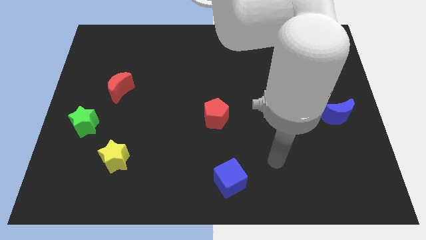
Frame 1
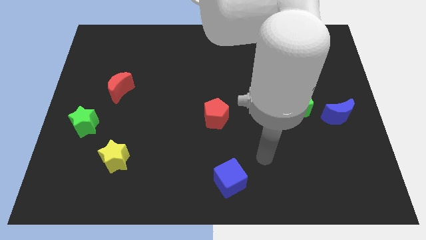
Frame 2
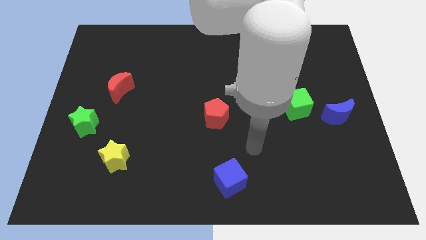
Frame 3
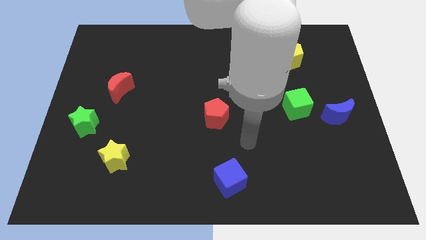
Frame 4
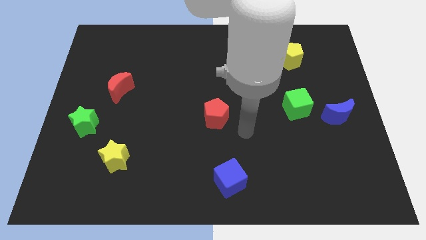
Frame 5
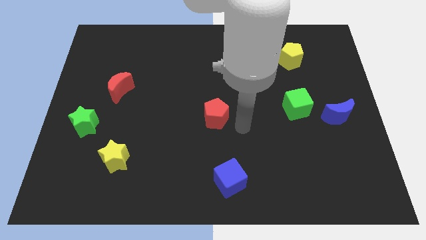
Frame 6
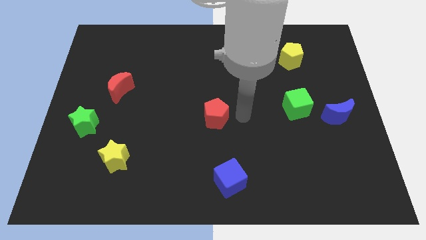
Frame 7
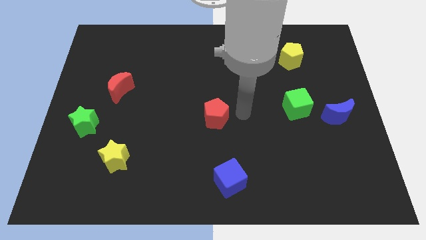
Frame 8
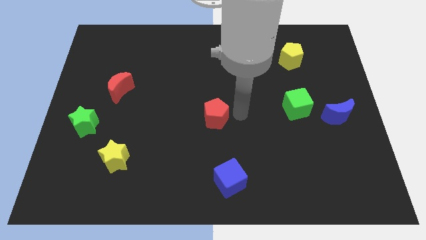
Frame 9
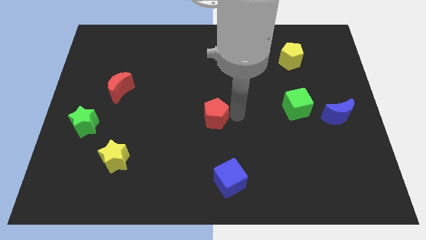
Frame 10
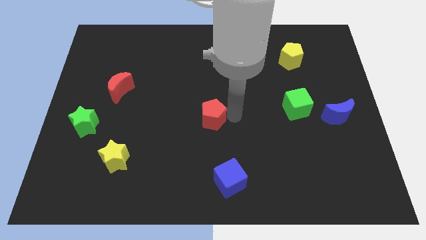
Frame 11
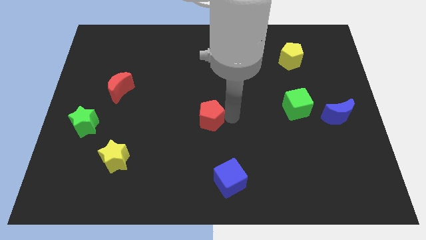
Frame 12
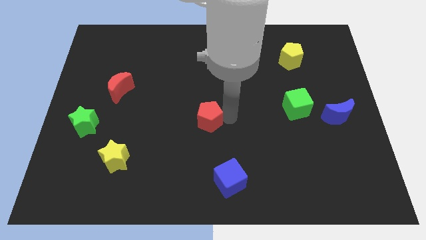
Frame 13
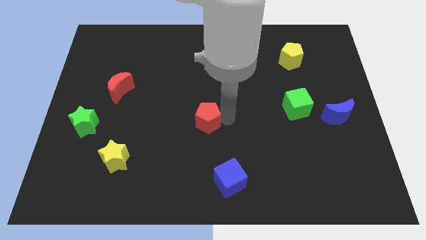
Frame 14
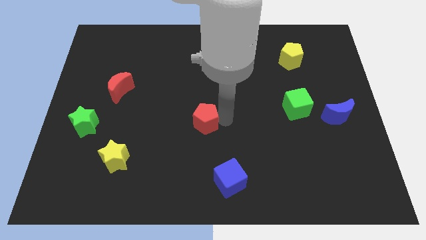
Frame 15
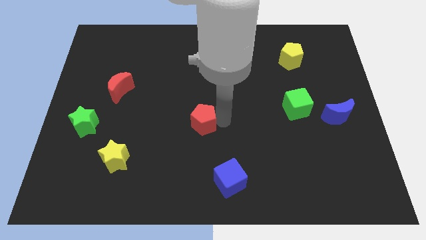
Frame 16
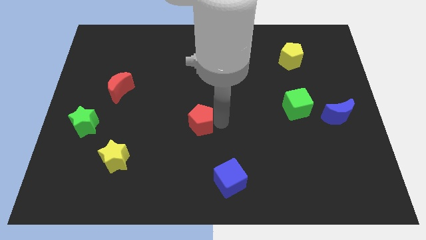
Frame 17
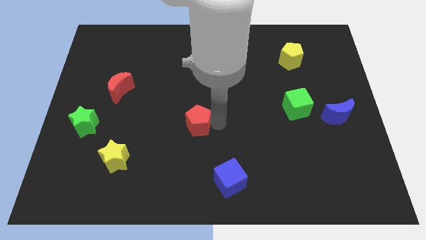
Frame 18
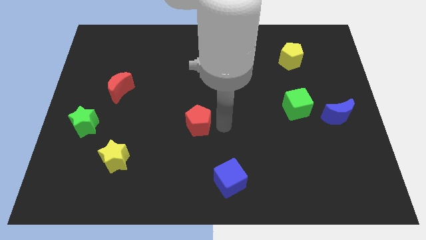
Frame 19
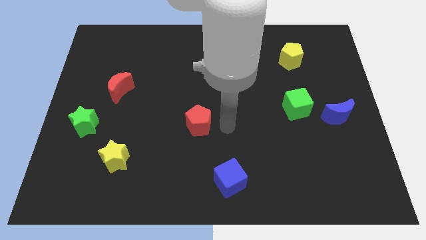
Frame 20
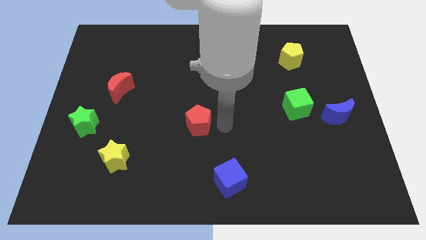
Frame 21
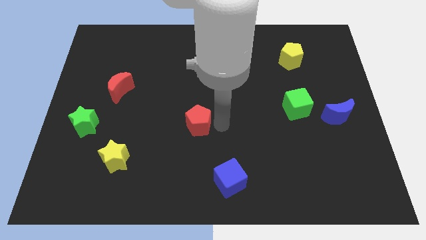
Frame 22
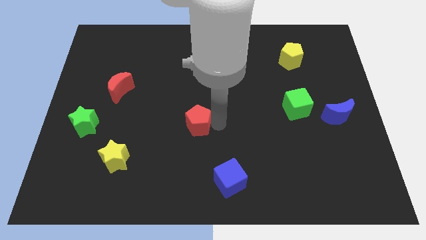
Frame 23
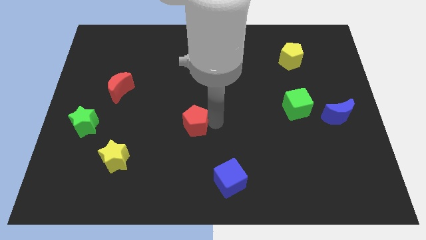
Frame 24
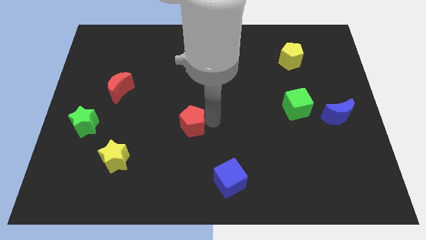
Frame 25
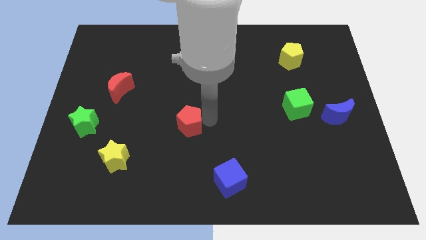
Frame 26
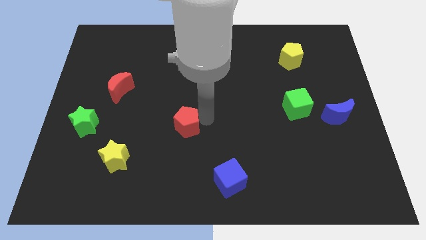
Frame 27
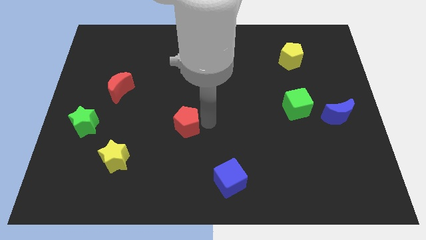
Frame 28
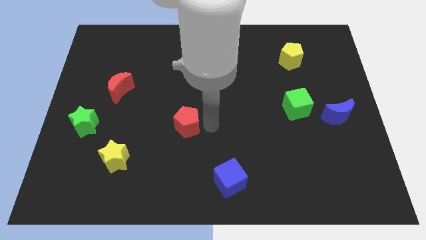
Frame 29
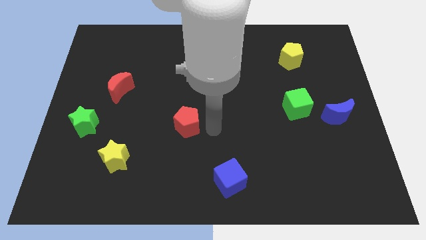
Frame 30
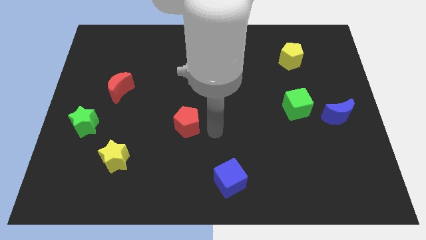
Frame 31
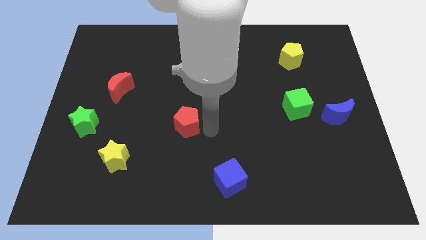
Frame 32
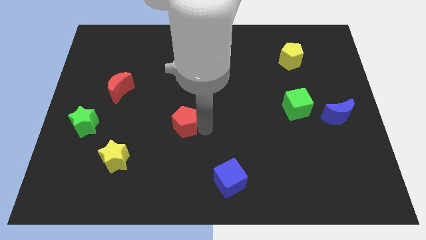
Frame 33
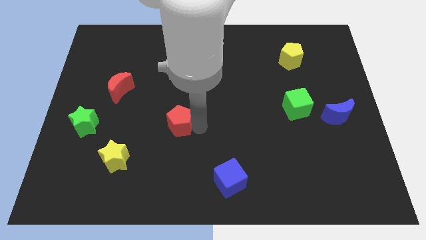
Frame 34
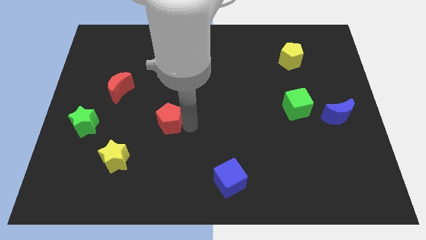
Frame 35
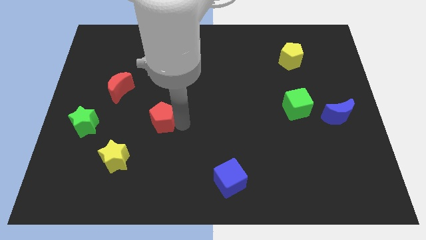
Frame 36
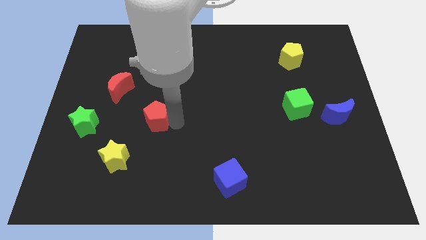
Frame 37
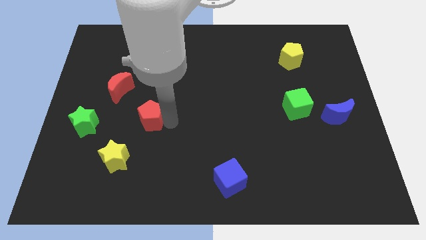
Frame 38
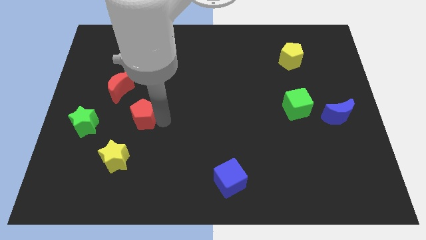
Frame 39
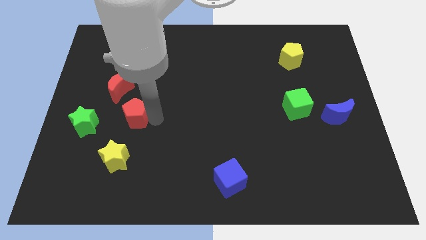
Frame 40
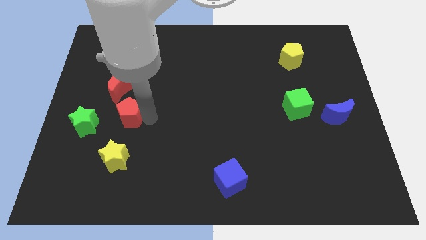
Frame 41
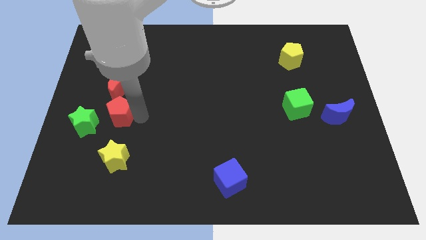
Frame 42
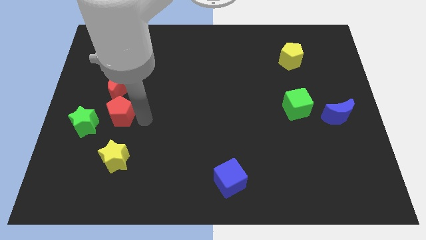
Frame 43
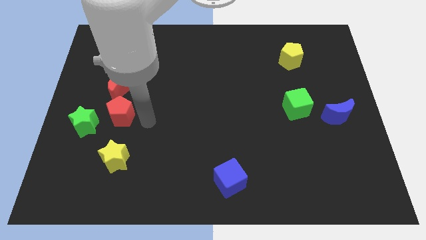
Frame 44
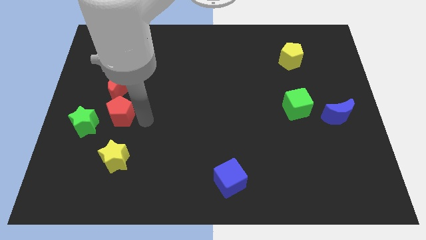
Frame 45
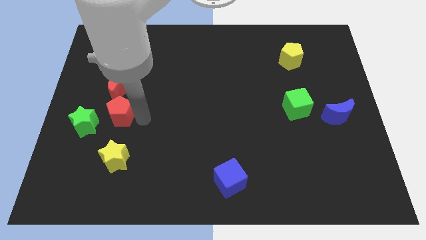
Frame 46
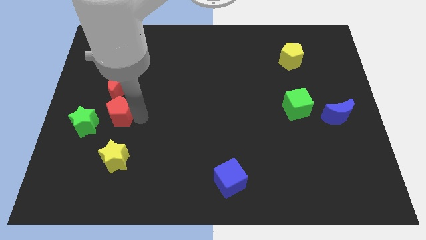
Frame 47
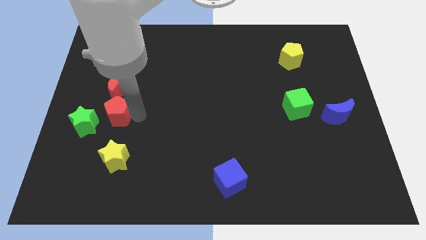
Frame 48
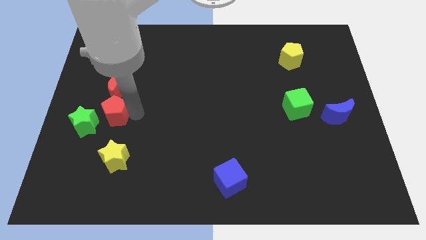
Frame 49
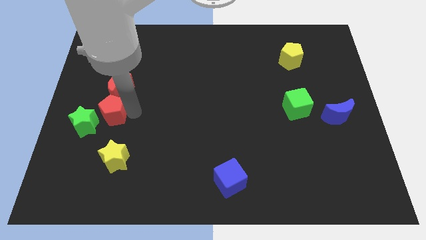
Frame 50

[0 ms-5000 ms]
slide the red pentagon to the bottom left of the red moon

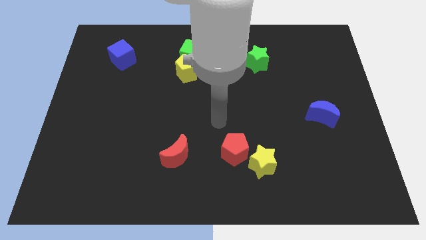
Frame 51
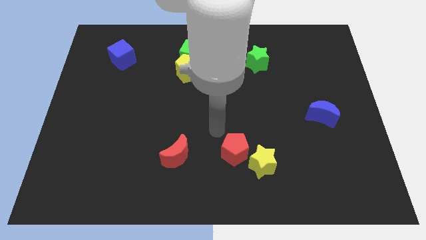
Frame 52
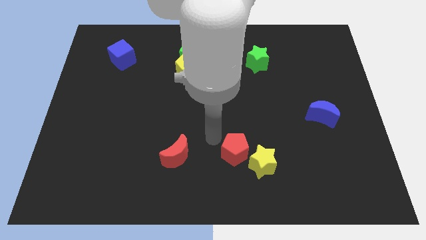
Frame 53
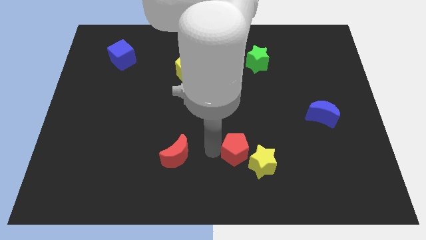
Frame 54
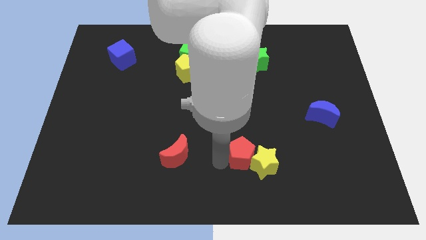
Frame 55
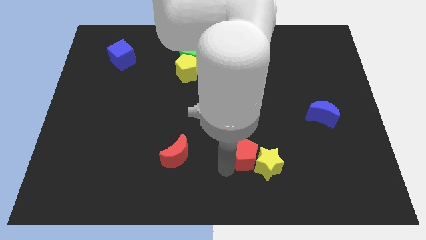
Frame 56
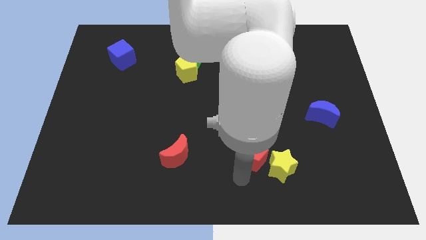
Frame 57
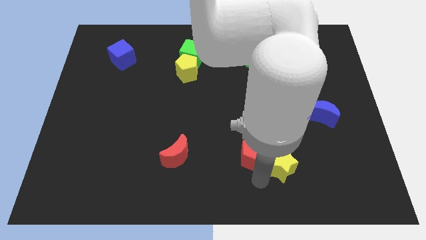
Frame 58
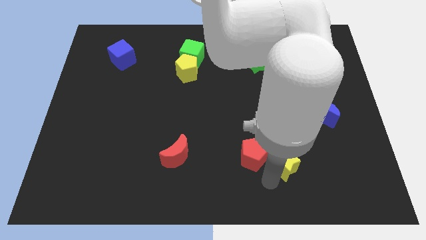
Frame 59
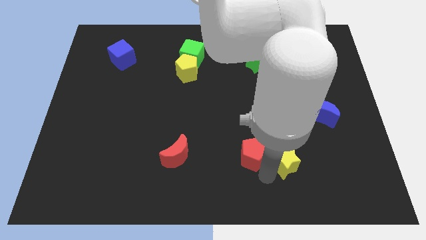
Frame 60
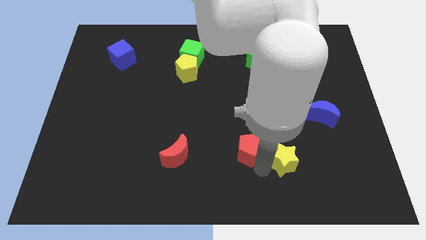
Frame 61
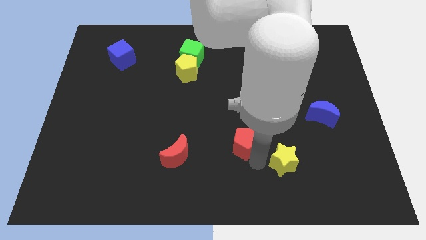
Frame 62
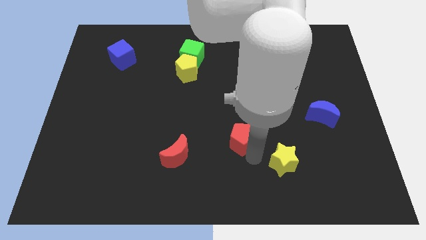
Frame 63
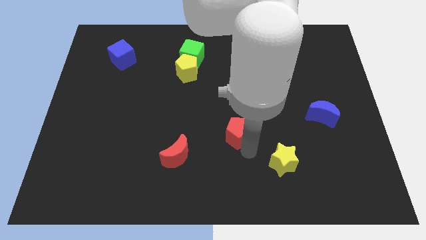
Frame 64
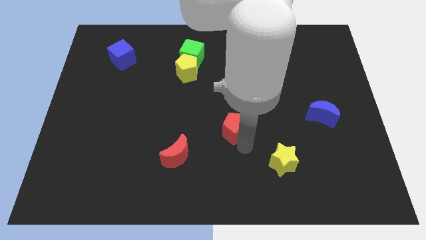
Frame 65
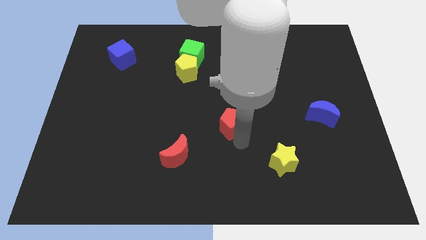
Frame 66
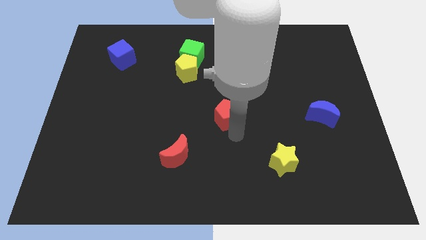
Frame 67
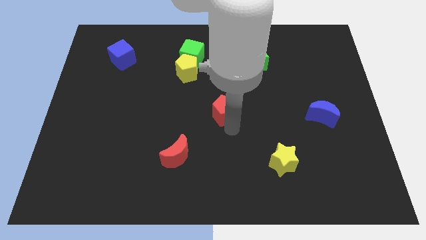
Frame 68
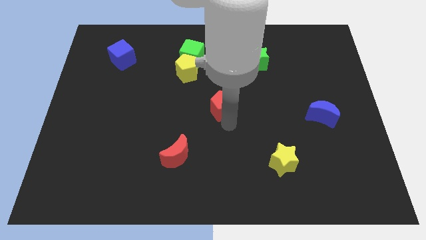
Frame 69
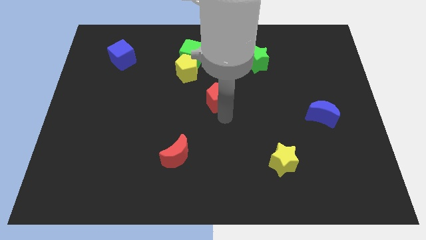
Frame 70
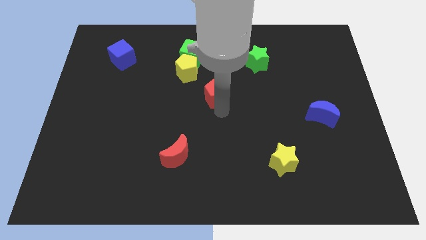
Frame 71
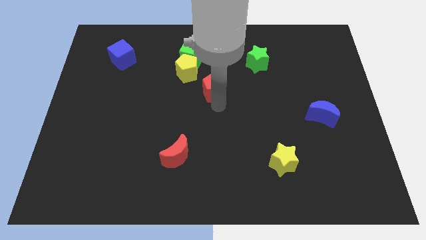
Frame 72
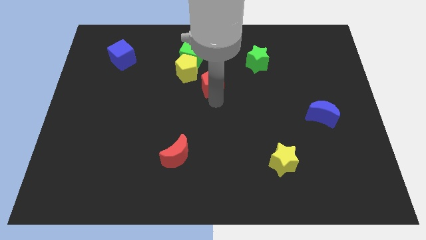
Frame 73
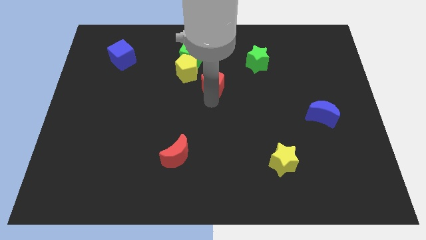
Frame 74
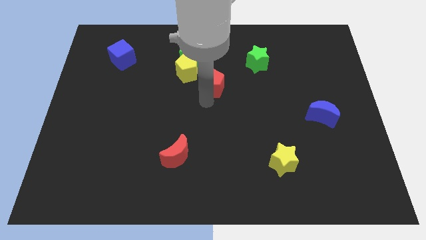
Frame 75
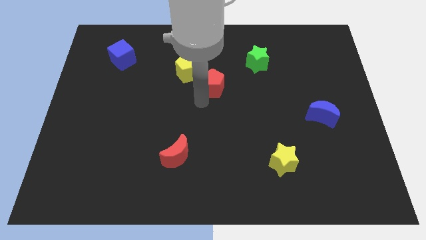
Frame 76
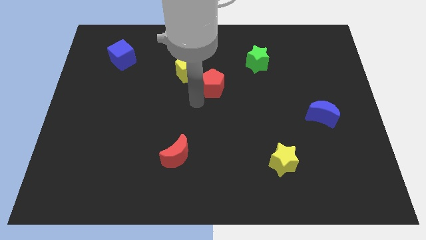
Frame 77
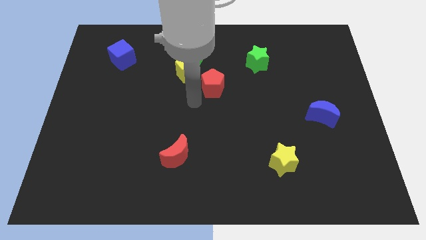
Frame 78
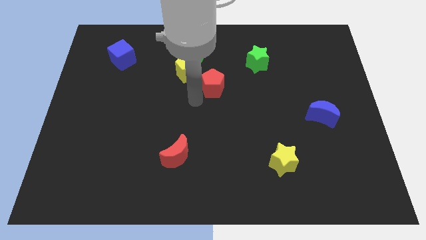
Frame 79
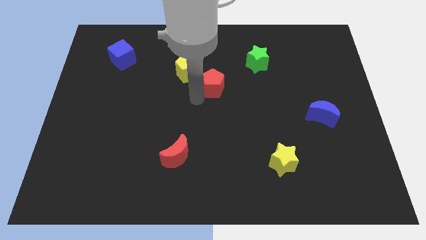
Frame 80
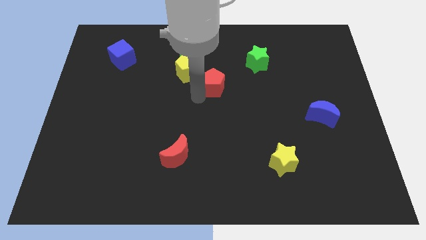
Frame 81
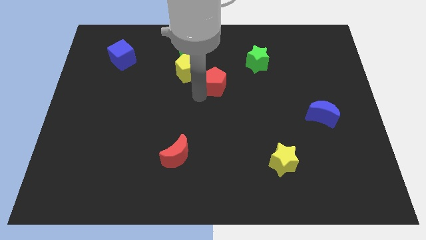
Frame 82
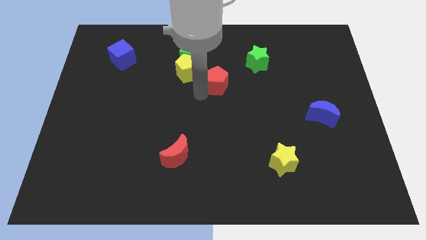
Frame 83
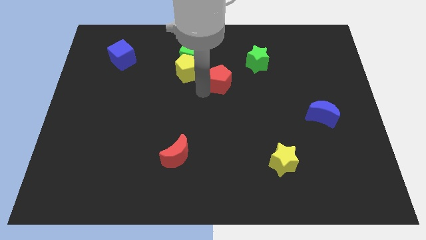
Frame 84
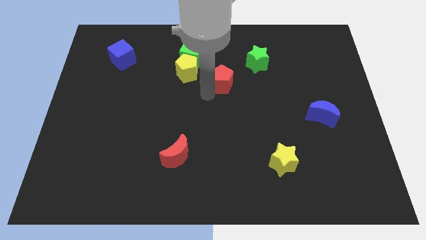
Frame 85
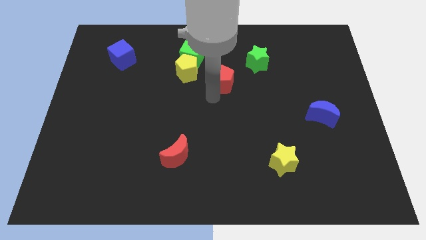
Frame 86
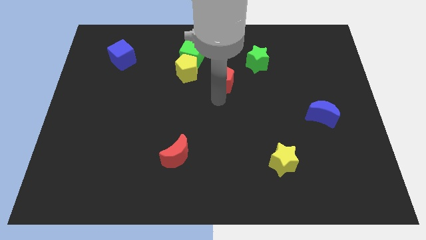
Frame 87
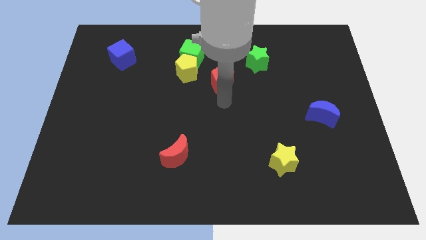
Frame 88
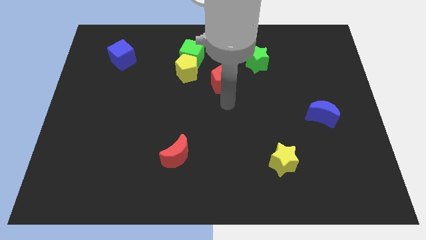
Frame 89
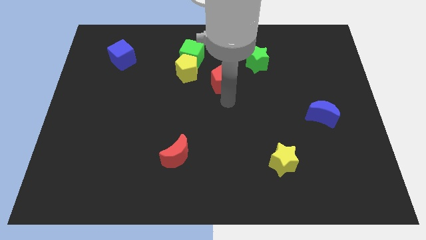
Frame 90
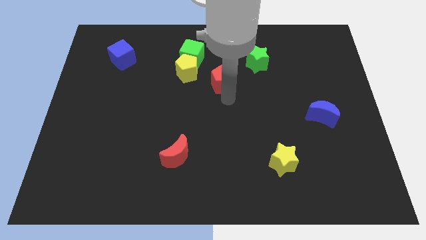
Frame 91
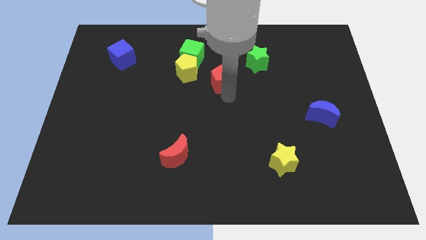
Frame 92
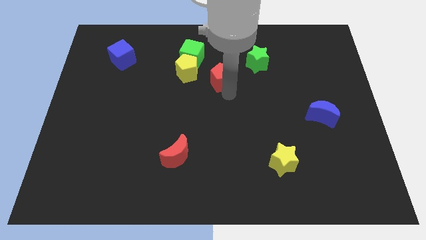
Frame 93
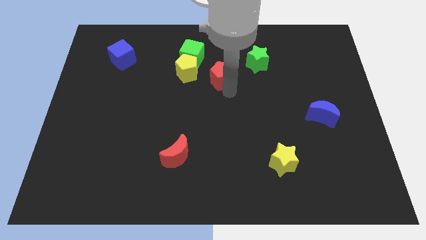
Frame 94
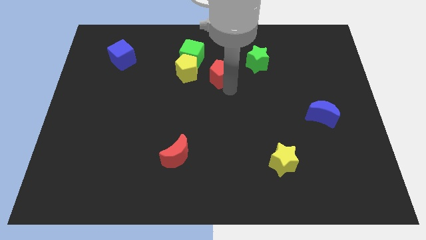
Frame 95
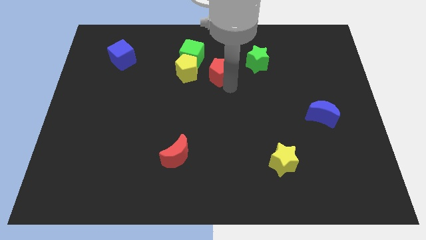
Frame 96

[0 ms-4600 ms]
push the red pentagon just left of the green star
